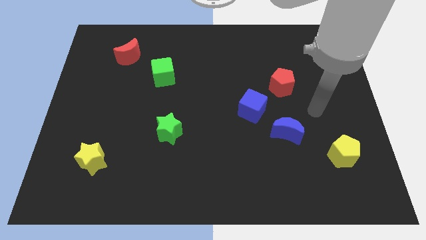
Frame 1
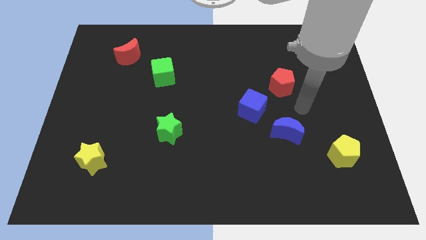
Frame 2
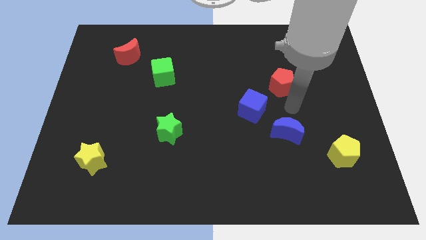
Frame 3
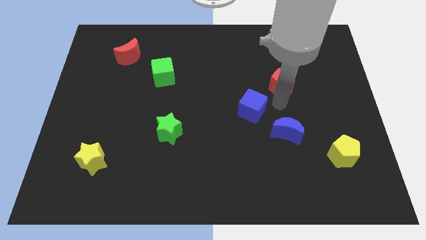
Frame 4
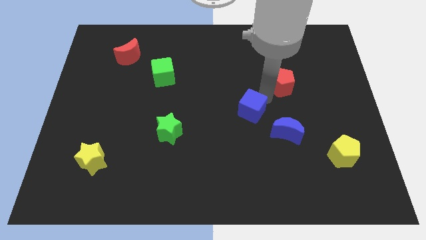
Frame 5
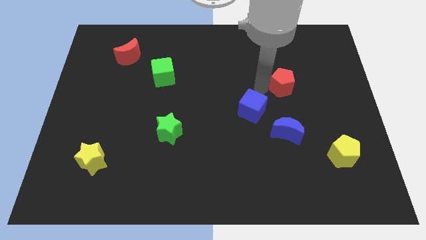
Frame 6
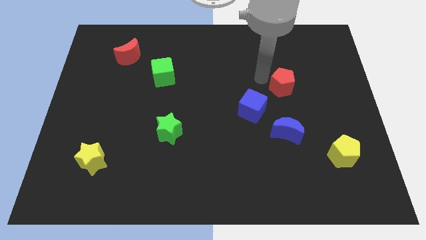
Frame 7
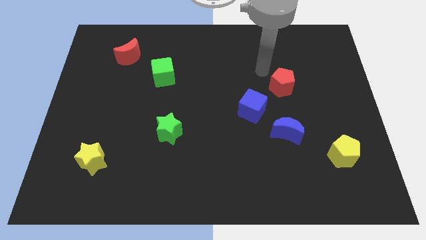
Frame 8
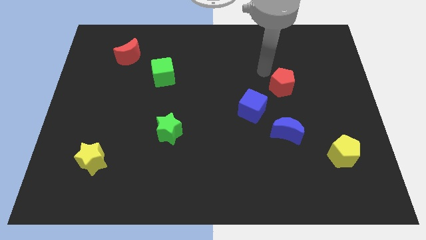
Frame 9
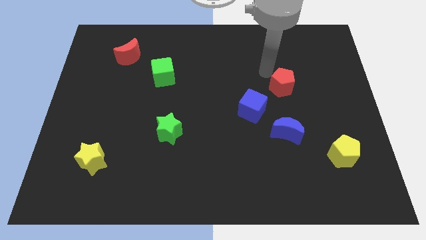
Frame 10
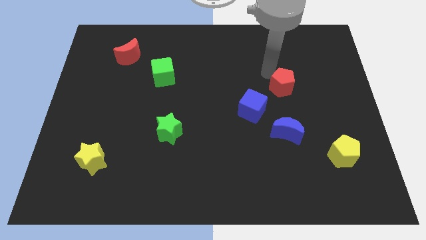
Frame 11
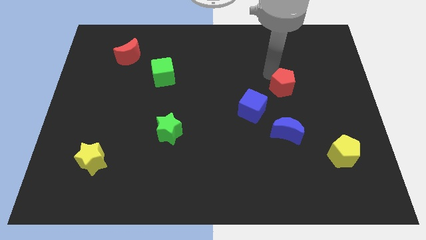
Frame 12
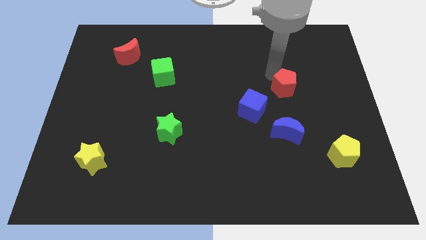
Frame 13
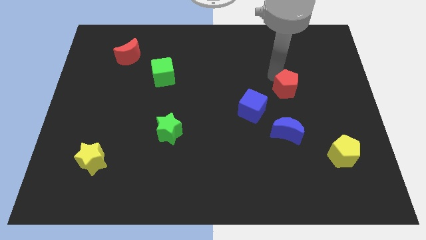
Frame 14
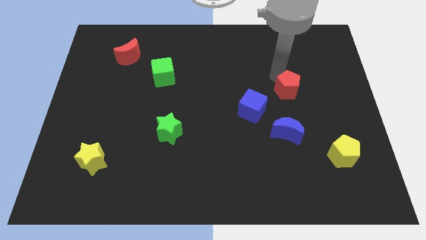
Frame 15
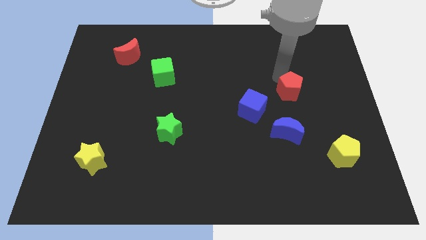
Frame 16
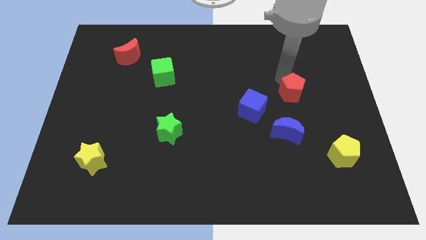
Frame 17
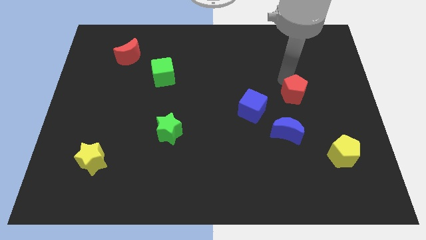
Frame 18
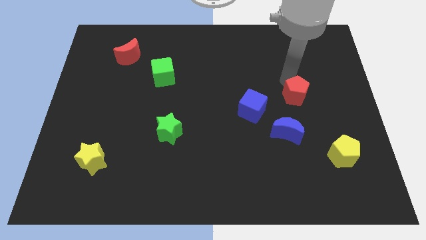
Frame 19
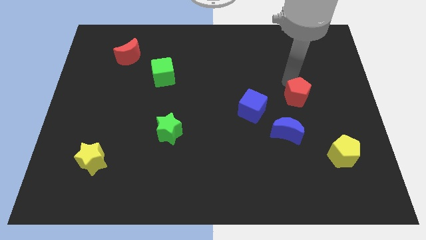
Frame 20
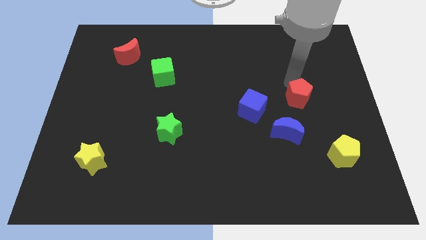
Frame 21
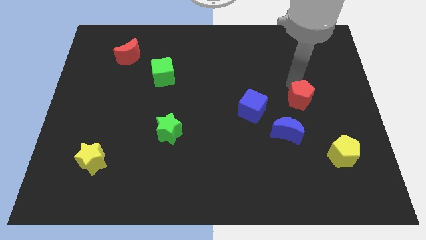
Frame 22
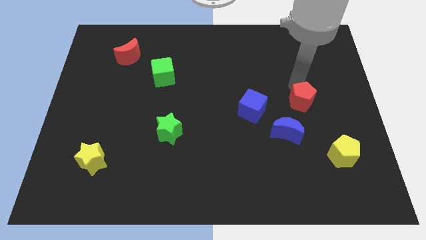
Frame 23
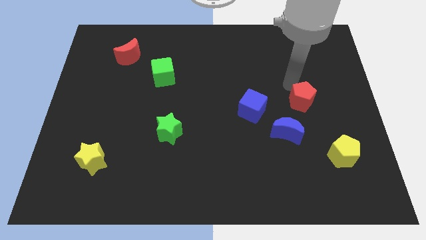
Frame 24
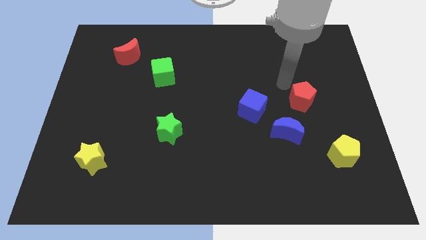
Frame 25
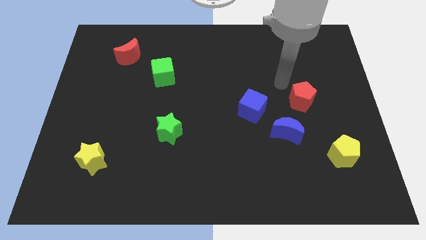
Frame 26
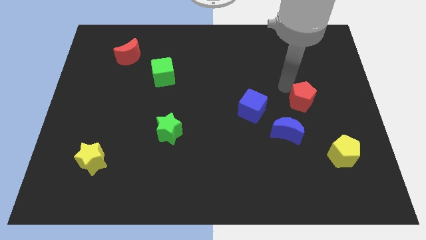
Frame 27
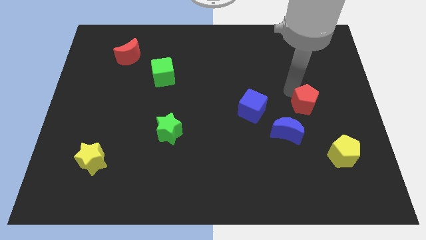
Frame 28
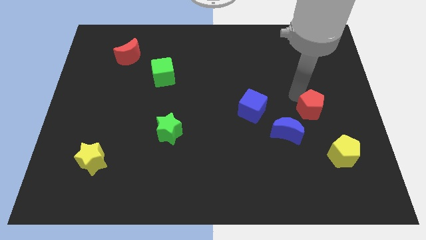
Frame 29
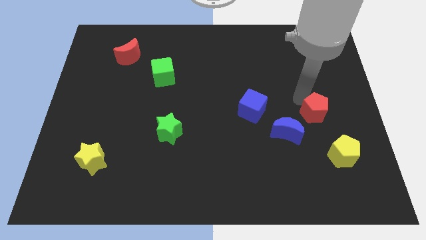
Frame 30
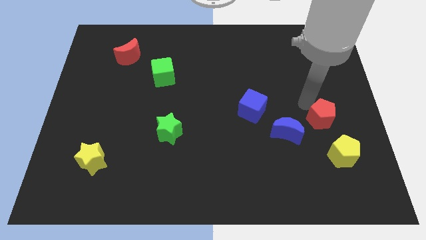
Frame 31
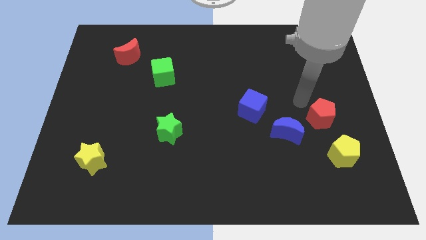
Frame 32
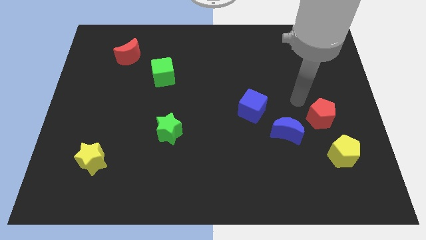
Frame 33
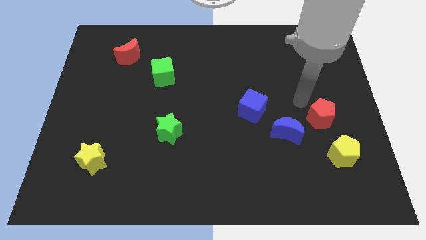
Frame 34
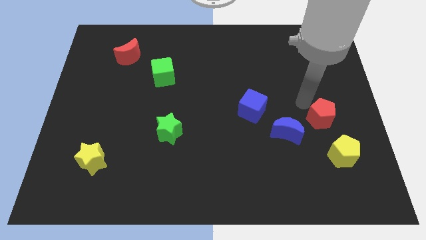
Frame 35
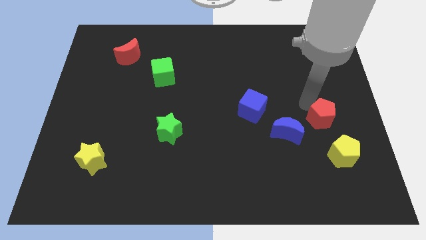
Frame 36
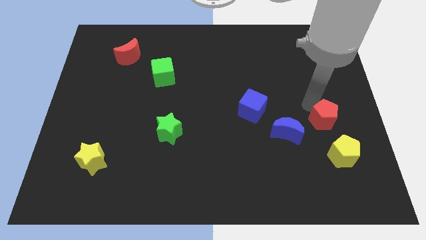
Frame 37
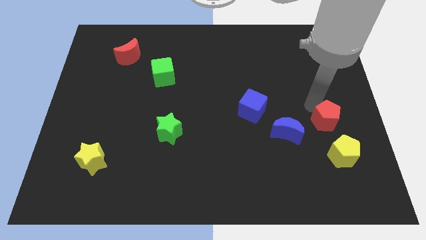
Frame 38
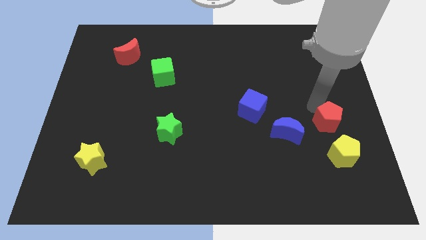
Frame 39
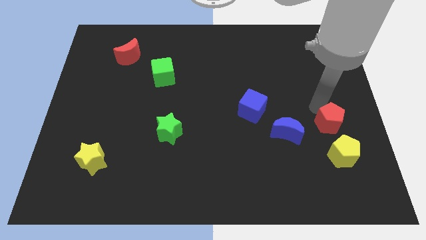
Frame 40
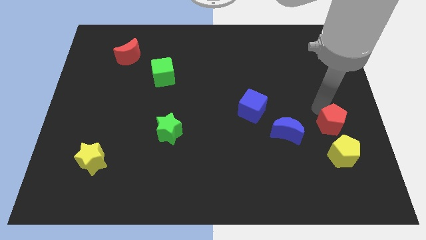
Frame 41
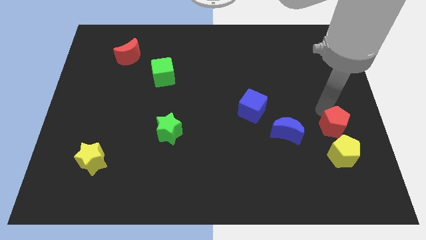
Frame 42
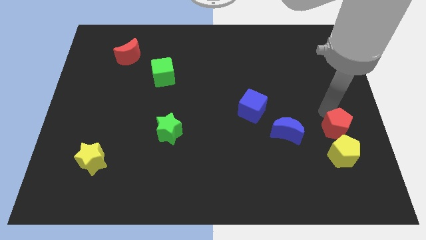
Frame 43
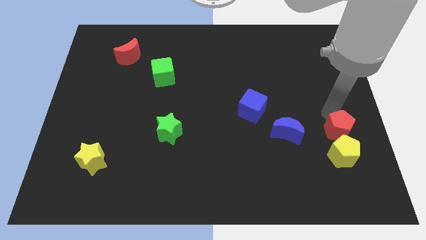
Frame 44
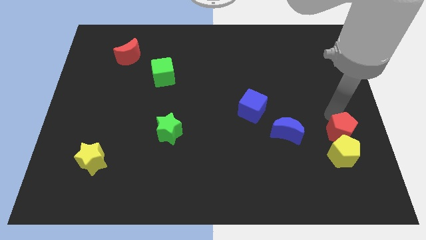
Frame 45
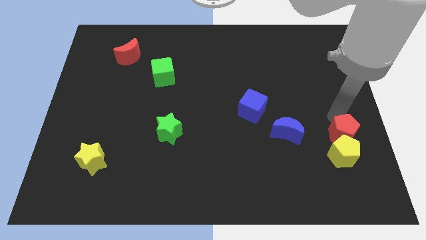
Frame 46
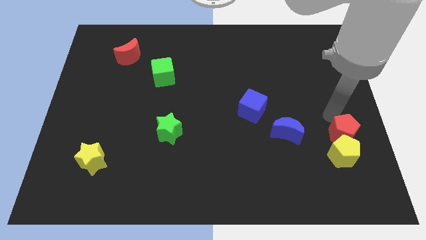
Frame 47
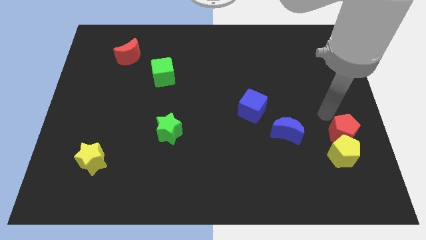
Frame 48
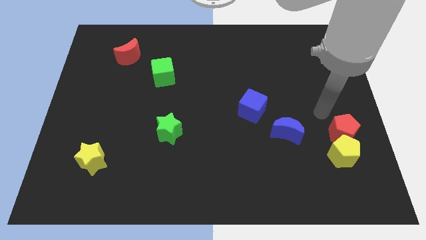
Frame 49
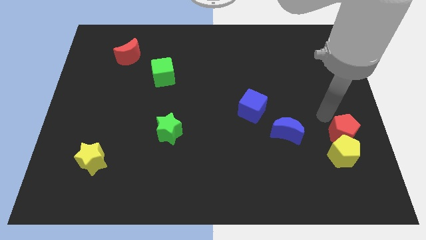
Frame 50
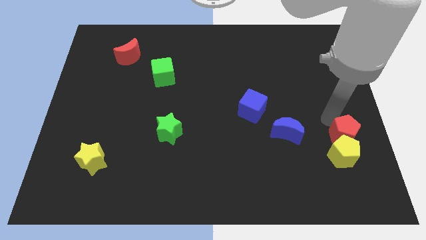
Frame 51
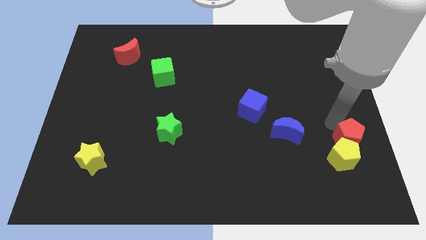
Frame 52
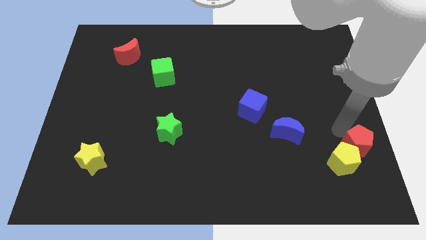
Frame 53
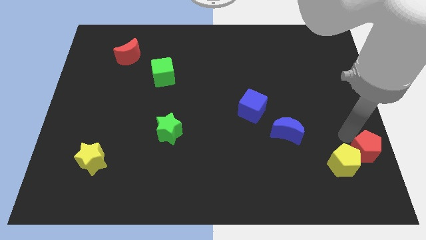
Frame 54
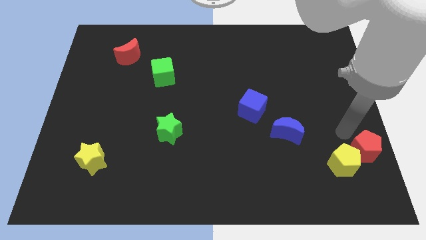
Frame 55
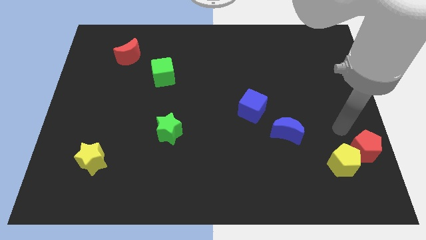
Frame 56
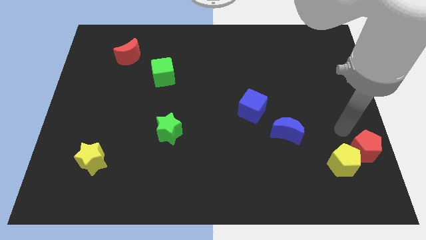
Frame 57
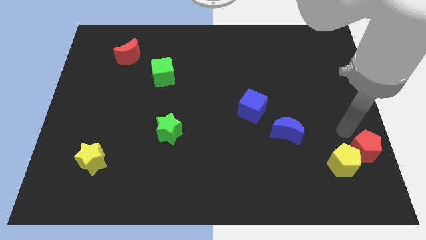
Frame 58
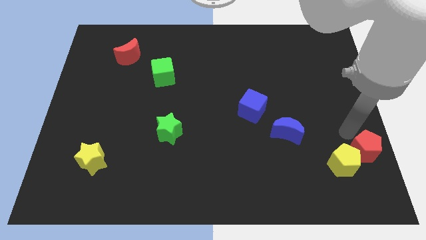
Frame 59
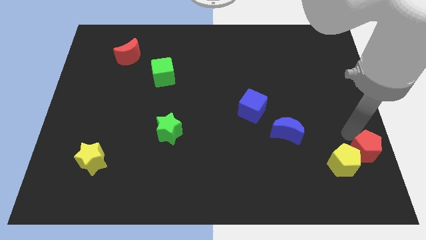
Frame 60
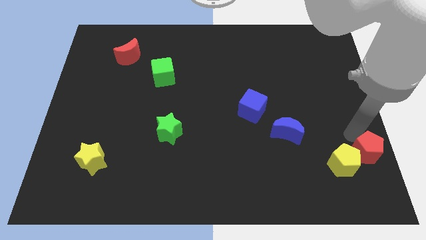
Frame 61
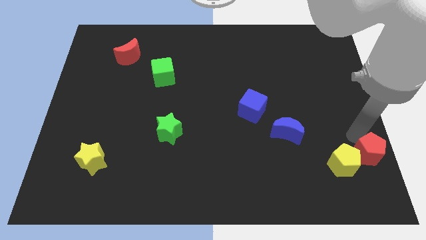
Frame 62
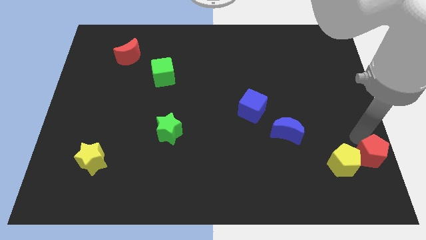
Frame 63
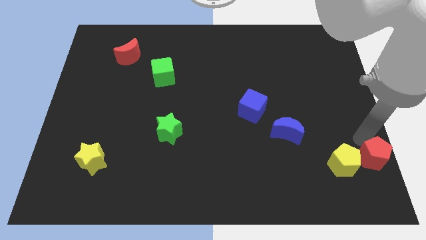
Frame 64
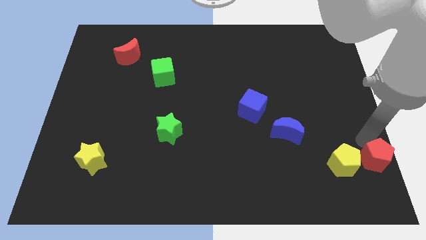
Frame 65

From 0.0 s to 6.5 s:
push the red pentagon to the bottom right corner
